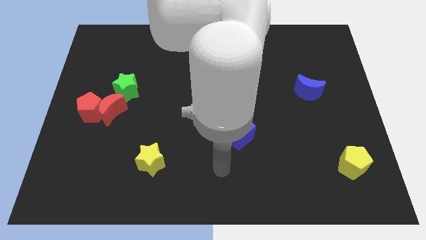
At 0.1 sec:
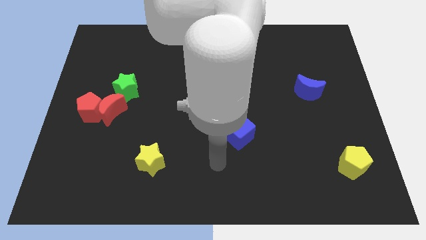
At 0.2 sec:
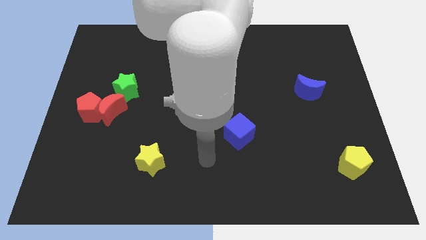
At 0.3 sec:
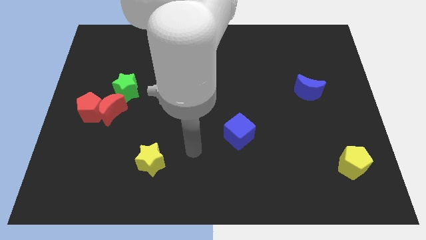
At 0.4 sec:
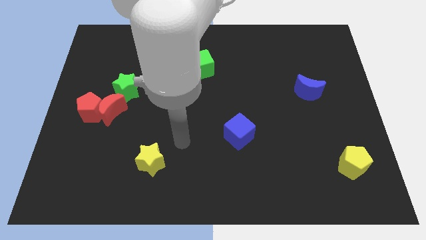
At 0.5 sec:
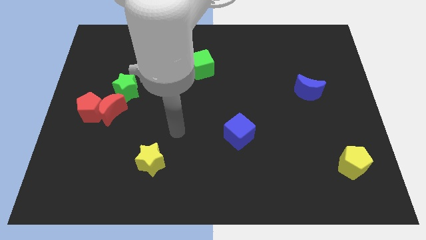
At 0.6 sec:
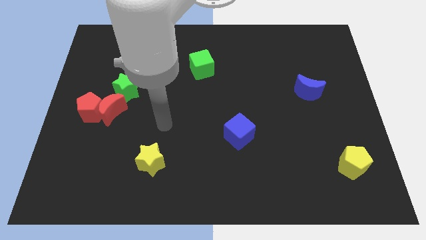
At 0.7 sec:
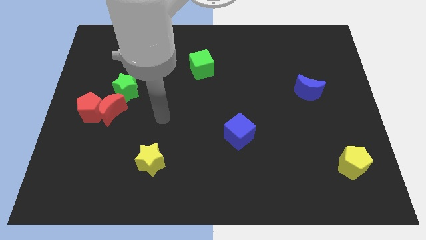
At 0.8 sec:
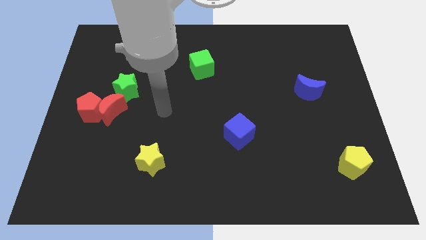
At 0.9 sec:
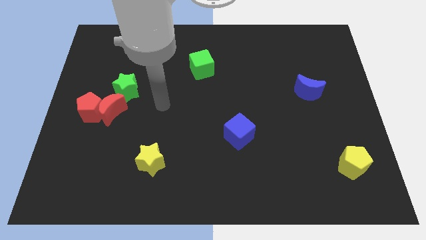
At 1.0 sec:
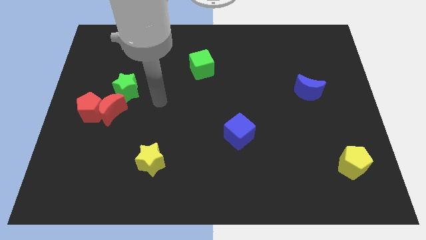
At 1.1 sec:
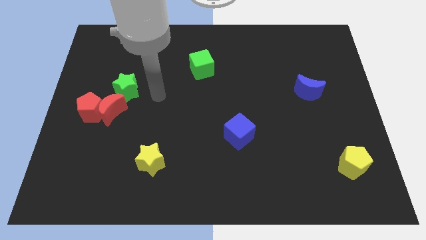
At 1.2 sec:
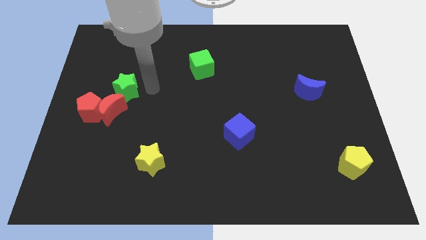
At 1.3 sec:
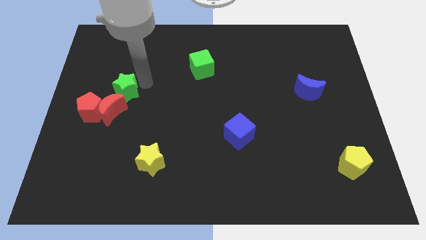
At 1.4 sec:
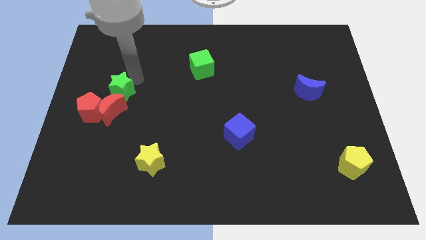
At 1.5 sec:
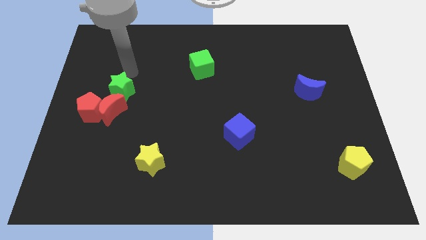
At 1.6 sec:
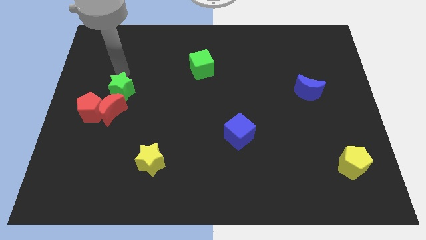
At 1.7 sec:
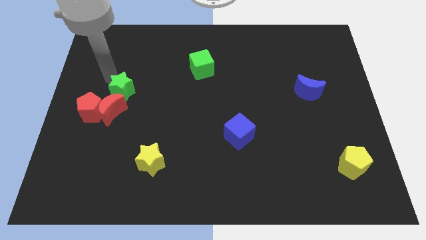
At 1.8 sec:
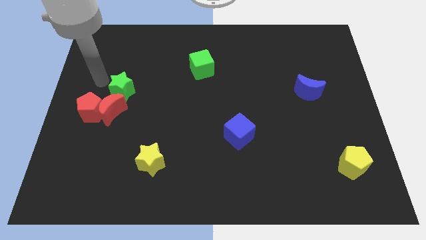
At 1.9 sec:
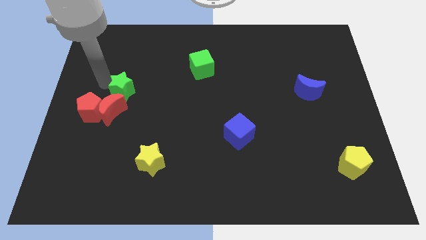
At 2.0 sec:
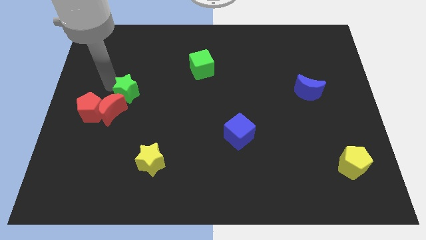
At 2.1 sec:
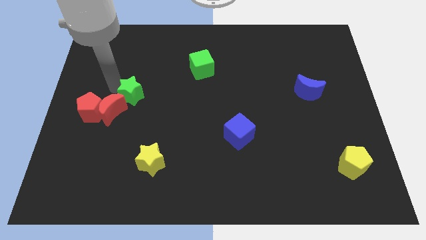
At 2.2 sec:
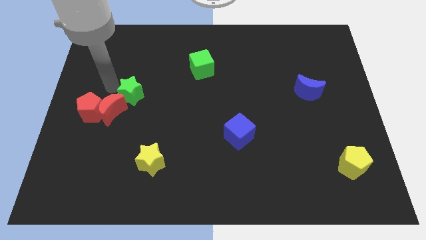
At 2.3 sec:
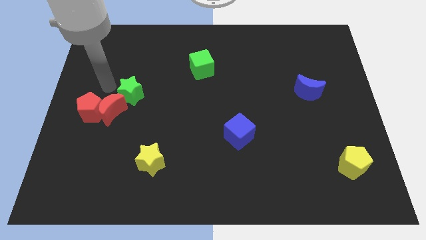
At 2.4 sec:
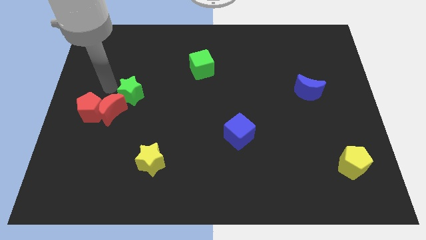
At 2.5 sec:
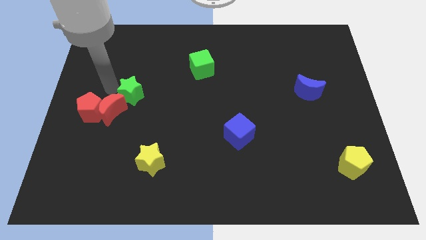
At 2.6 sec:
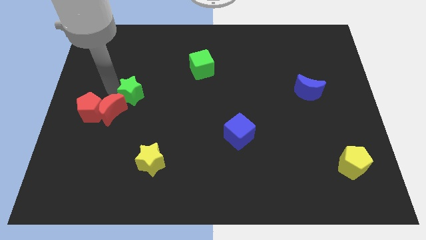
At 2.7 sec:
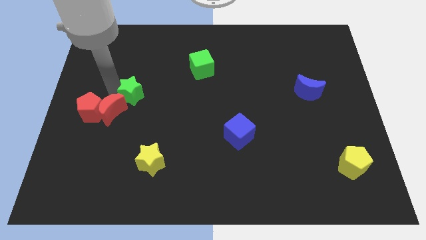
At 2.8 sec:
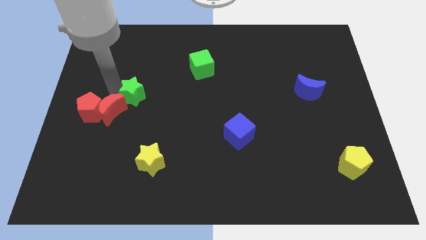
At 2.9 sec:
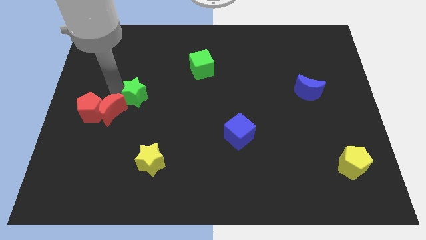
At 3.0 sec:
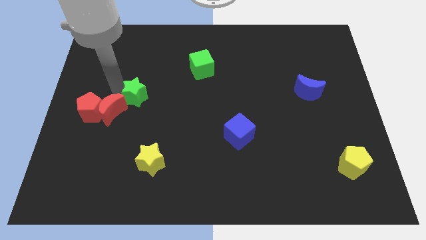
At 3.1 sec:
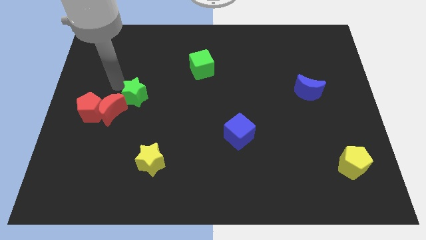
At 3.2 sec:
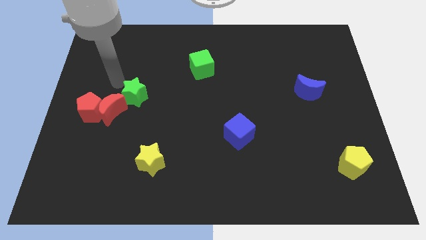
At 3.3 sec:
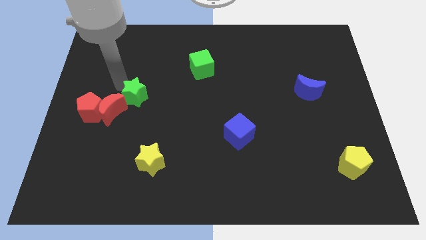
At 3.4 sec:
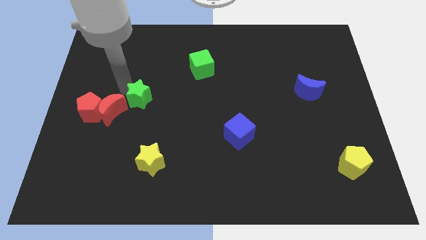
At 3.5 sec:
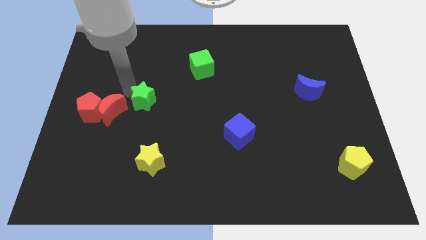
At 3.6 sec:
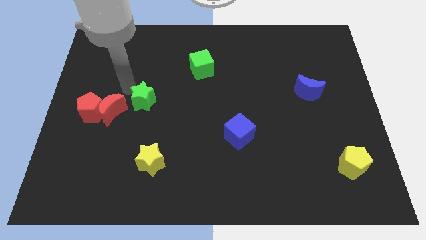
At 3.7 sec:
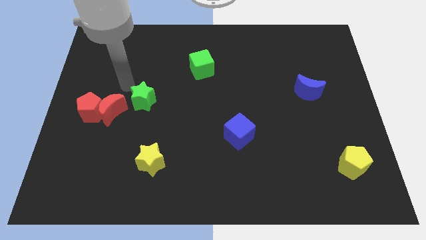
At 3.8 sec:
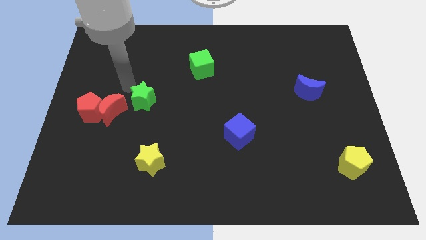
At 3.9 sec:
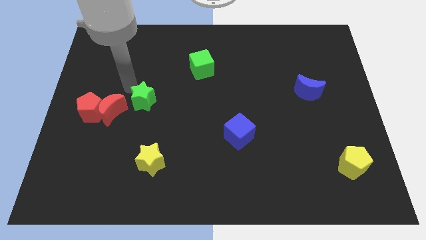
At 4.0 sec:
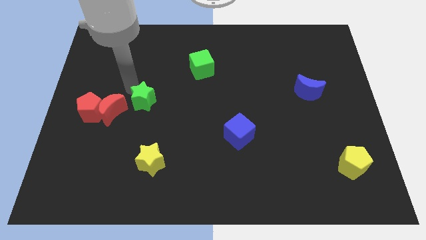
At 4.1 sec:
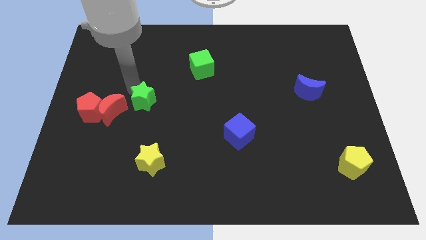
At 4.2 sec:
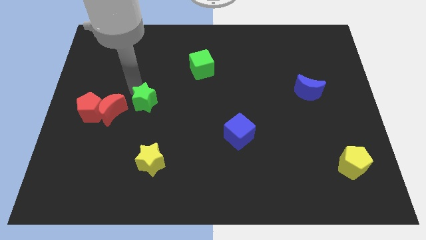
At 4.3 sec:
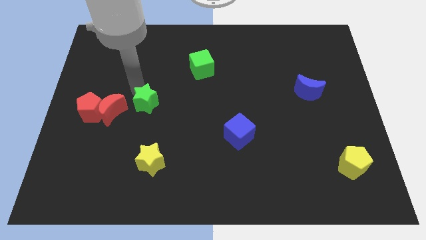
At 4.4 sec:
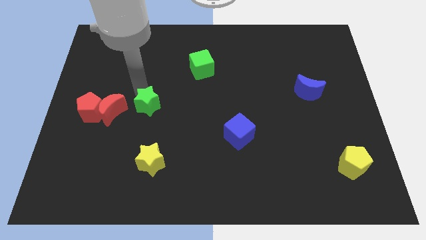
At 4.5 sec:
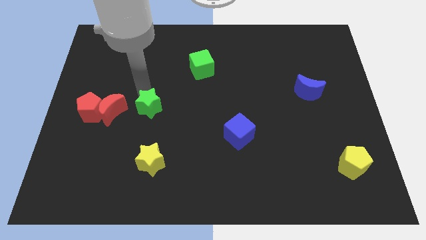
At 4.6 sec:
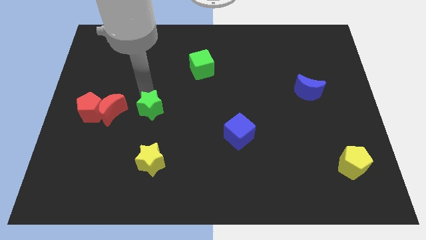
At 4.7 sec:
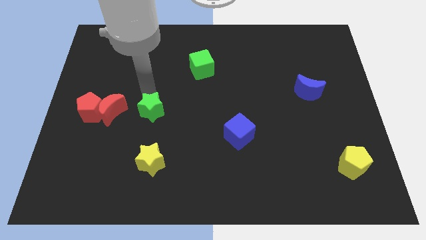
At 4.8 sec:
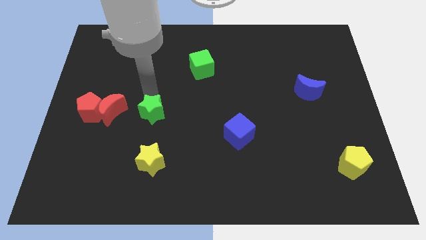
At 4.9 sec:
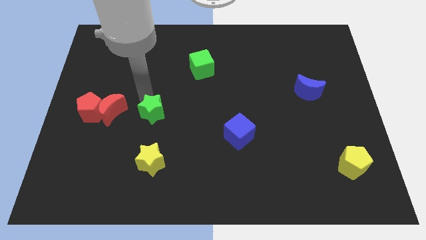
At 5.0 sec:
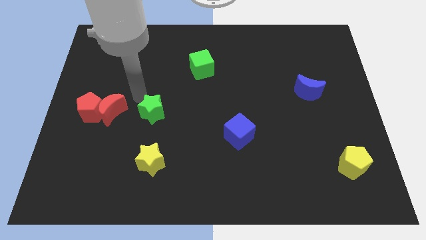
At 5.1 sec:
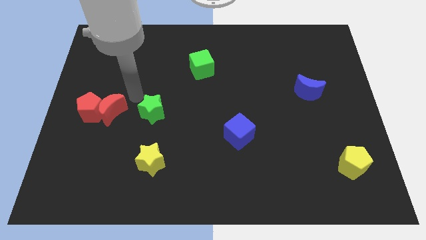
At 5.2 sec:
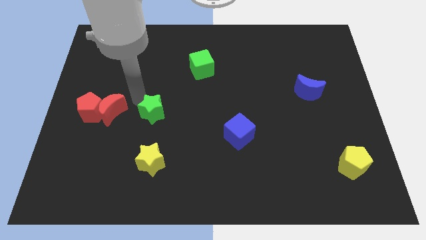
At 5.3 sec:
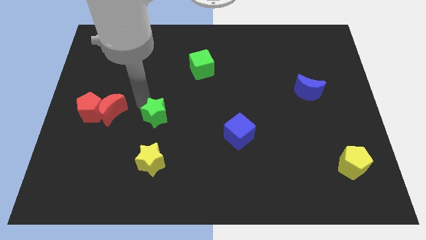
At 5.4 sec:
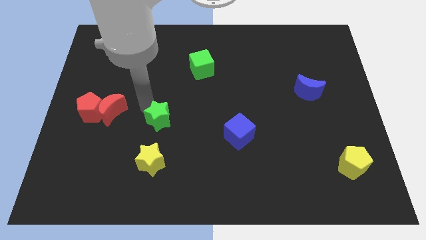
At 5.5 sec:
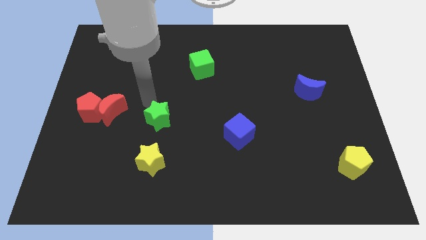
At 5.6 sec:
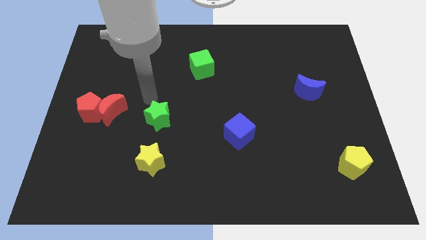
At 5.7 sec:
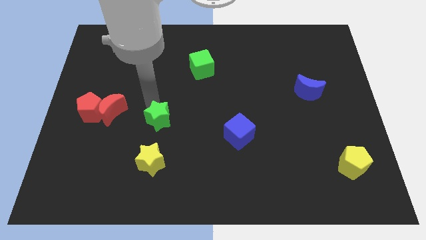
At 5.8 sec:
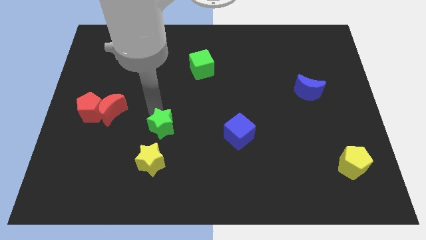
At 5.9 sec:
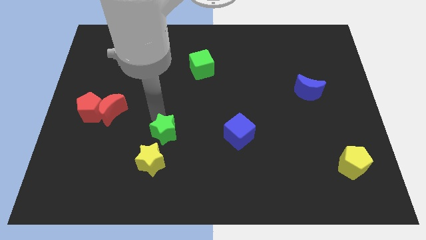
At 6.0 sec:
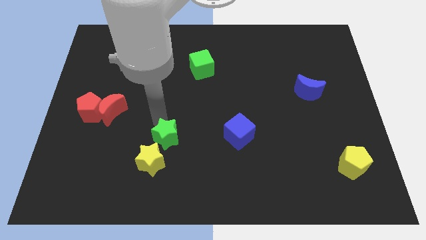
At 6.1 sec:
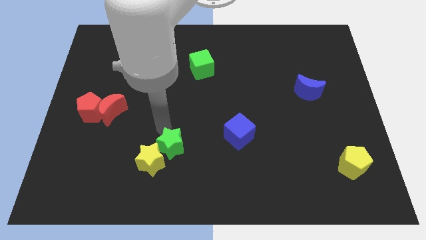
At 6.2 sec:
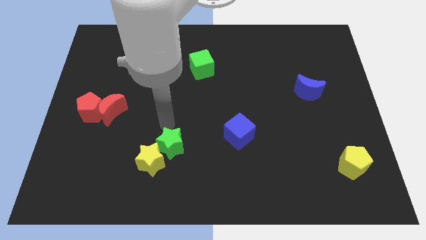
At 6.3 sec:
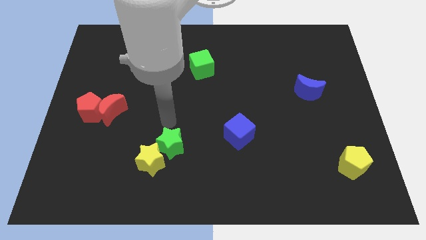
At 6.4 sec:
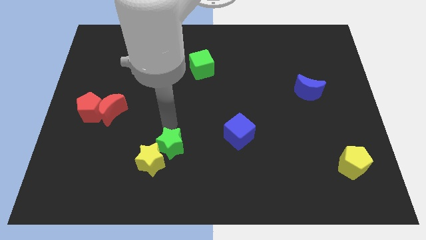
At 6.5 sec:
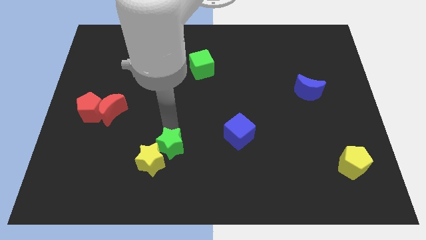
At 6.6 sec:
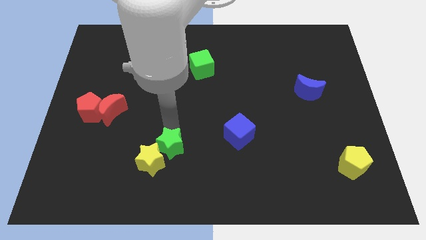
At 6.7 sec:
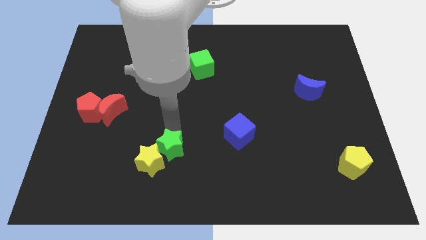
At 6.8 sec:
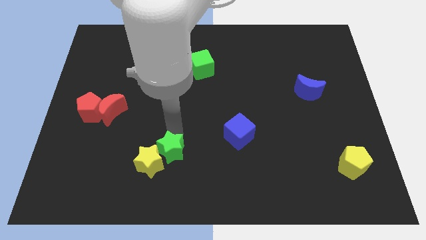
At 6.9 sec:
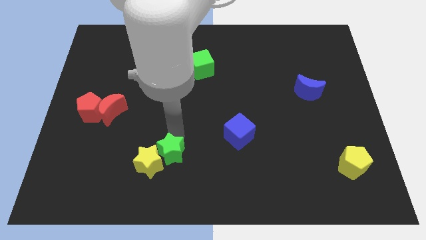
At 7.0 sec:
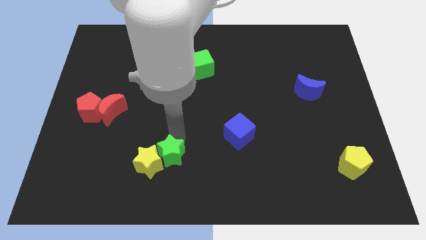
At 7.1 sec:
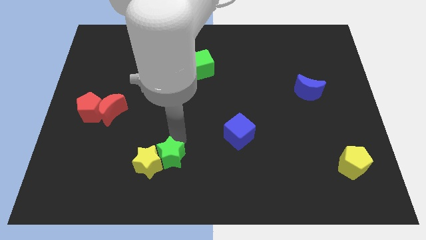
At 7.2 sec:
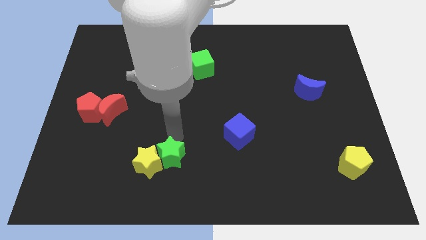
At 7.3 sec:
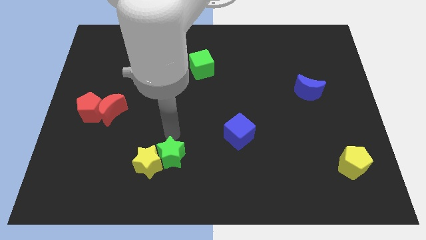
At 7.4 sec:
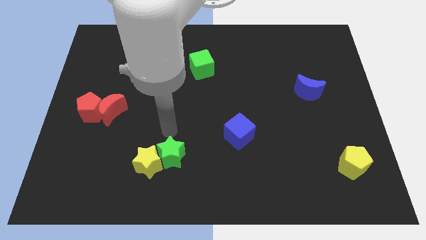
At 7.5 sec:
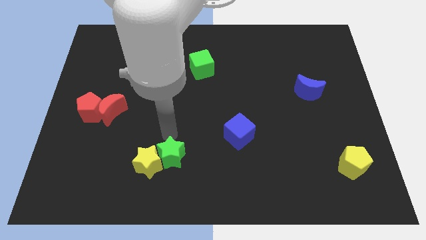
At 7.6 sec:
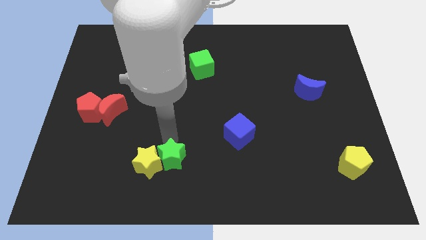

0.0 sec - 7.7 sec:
slide the green star diagonally down and to the right of the yellow star

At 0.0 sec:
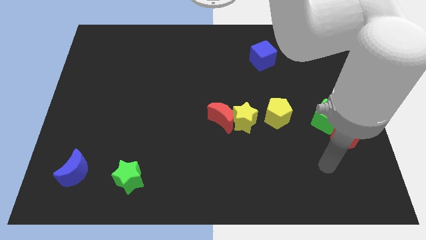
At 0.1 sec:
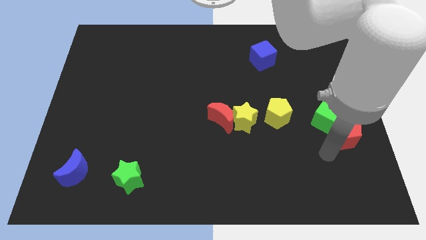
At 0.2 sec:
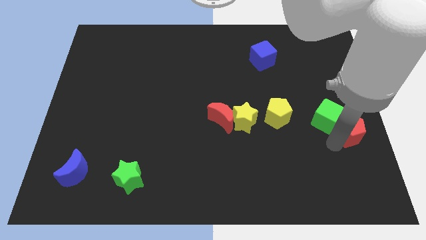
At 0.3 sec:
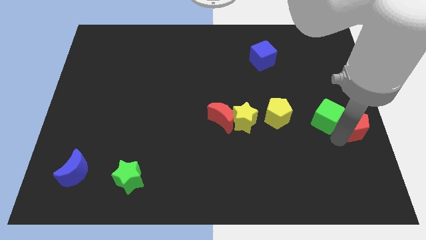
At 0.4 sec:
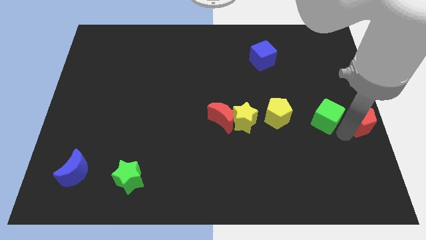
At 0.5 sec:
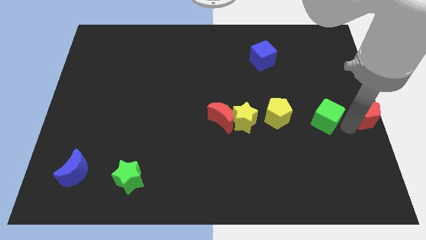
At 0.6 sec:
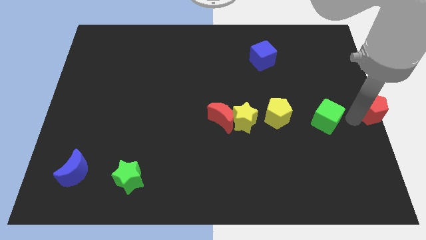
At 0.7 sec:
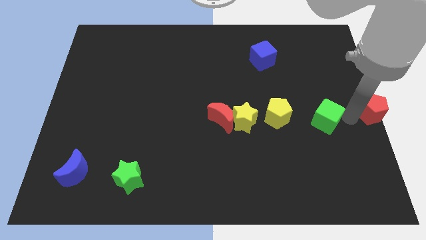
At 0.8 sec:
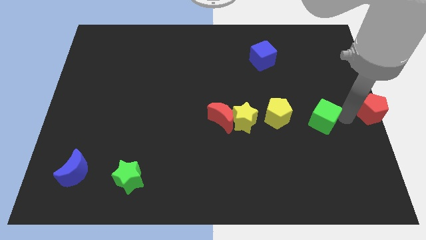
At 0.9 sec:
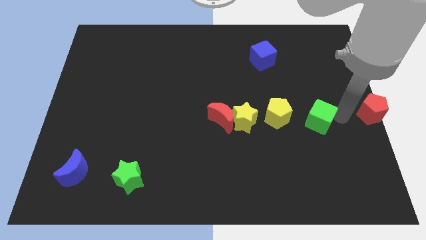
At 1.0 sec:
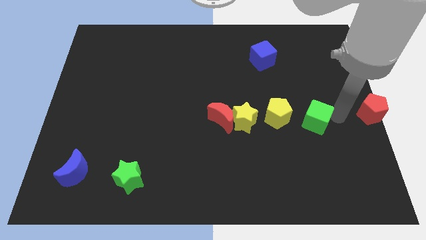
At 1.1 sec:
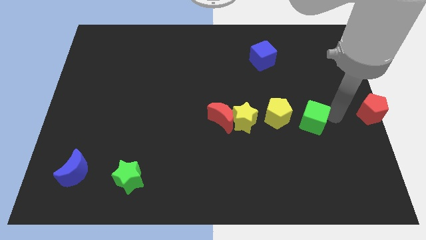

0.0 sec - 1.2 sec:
put the green cube right of the yellow star
